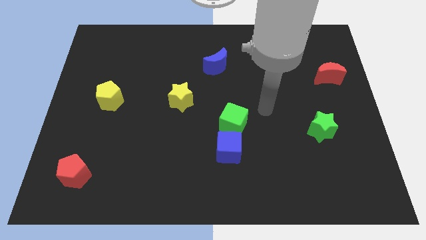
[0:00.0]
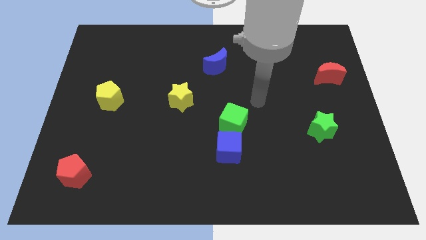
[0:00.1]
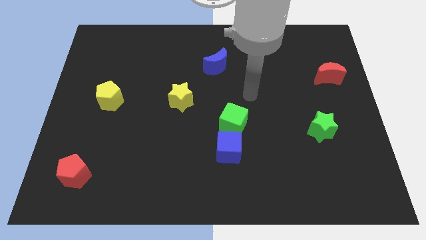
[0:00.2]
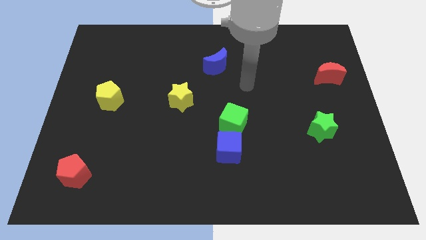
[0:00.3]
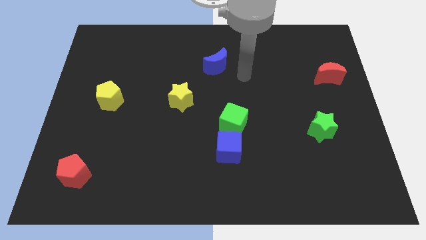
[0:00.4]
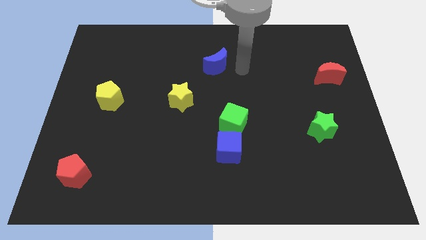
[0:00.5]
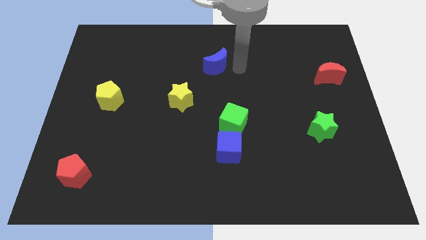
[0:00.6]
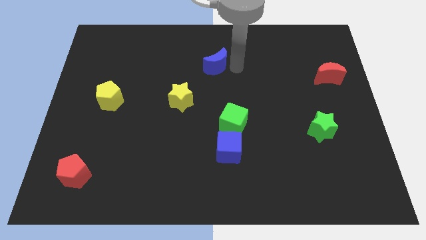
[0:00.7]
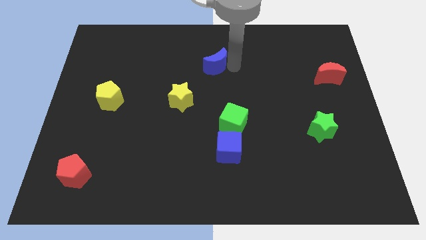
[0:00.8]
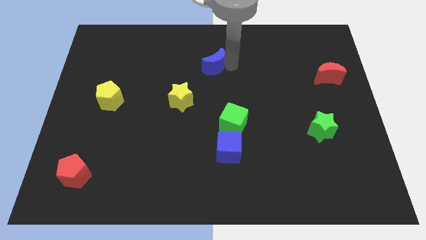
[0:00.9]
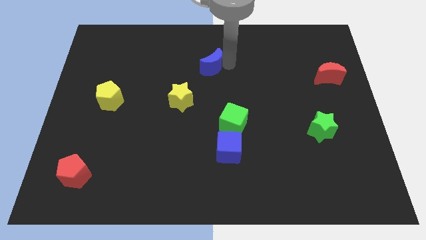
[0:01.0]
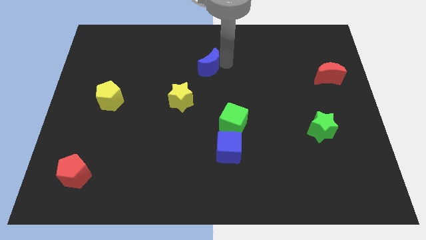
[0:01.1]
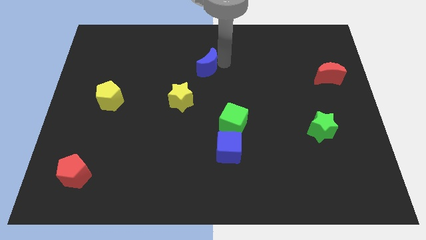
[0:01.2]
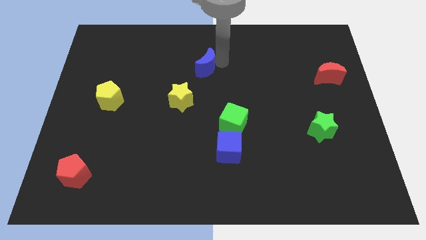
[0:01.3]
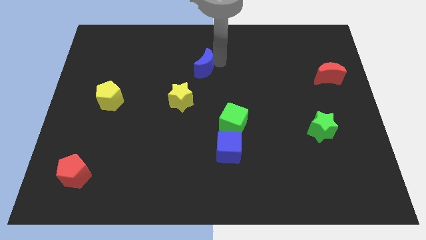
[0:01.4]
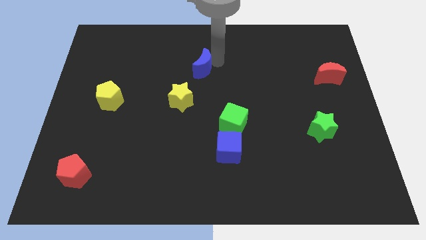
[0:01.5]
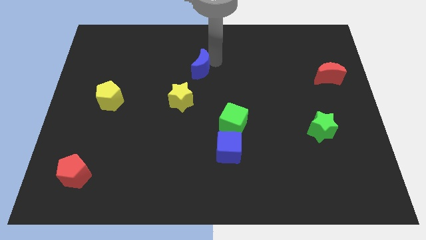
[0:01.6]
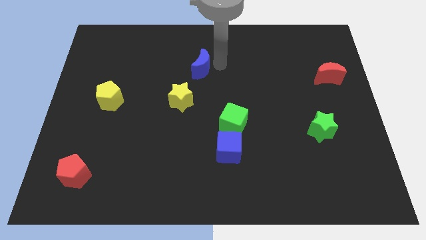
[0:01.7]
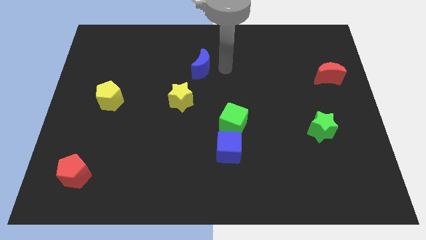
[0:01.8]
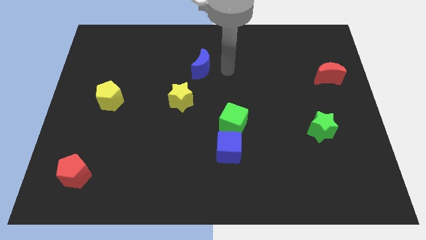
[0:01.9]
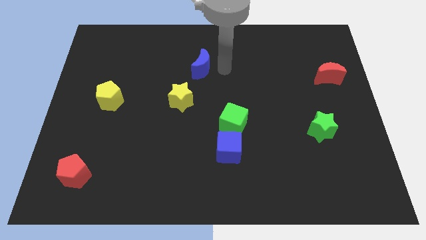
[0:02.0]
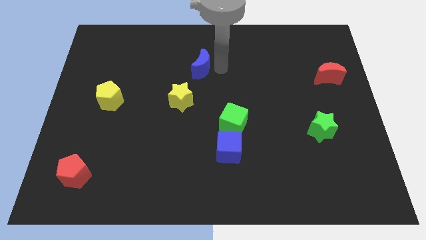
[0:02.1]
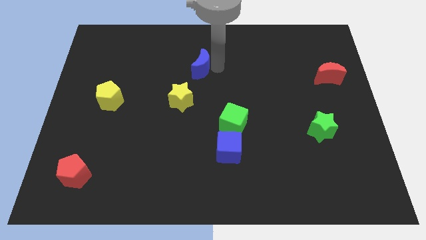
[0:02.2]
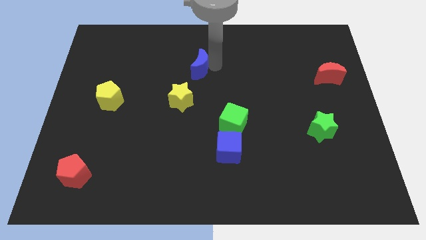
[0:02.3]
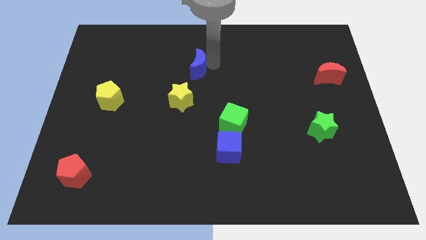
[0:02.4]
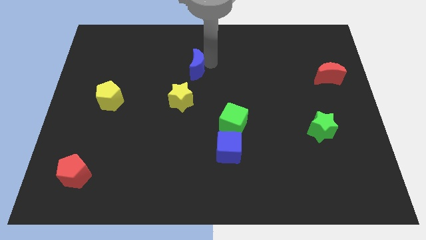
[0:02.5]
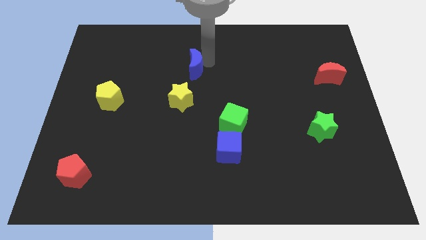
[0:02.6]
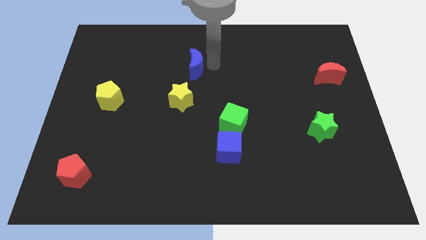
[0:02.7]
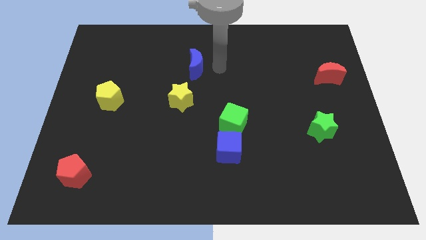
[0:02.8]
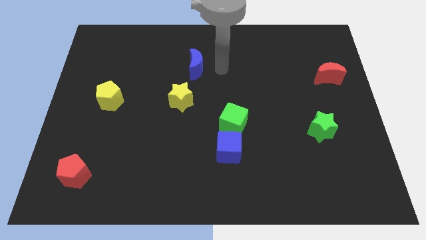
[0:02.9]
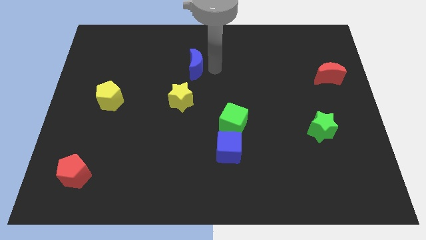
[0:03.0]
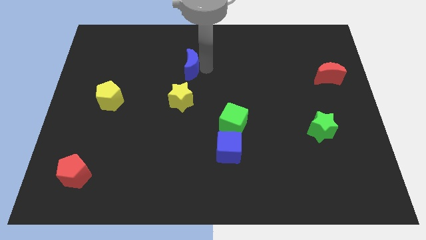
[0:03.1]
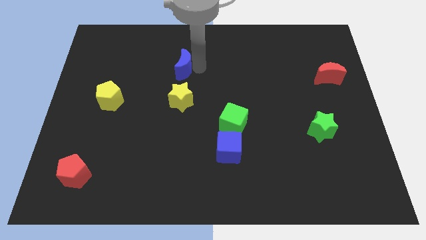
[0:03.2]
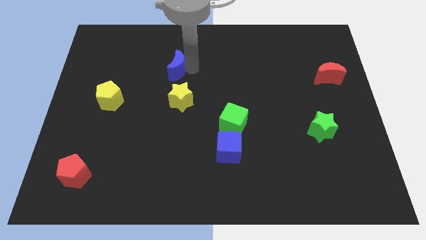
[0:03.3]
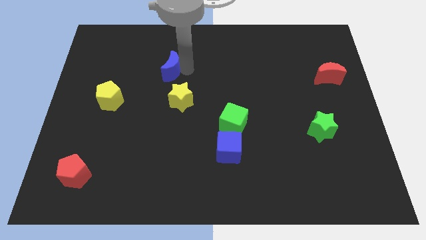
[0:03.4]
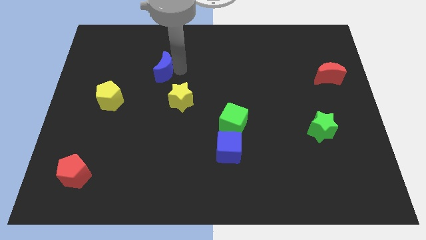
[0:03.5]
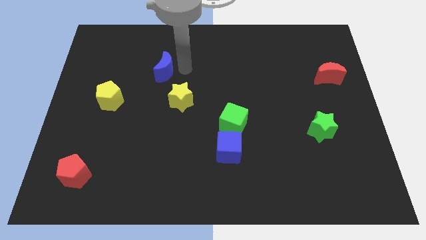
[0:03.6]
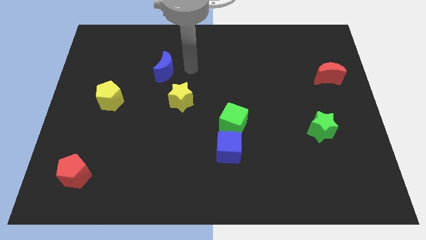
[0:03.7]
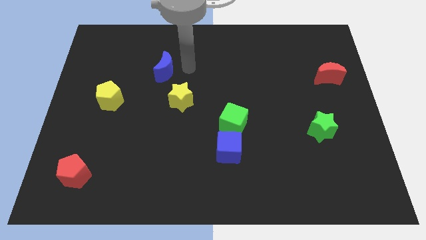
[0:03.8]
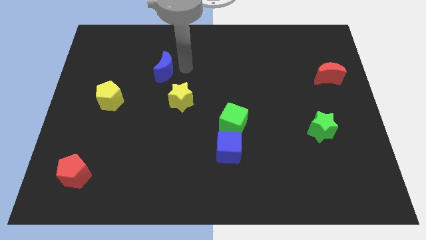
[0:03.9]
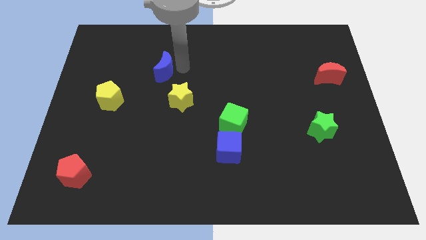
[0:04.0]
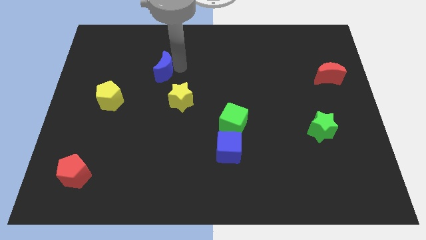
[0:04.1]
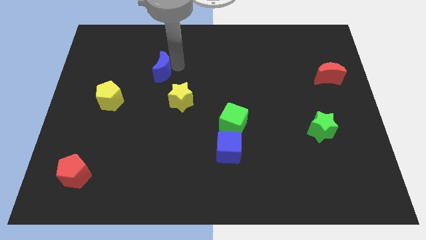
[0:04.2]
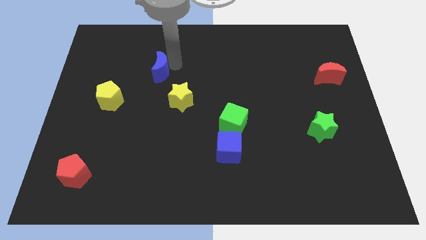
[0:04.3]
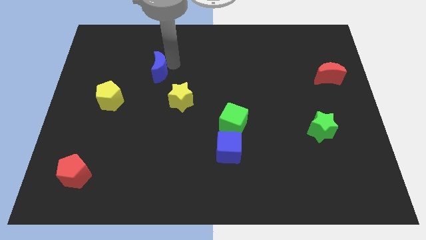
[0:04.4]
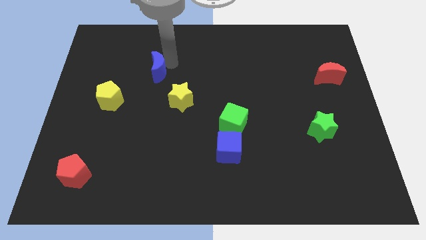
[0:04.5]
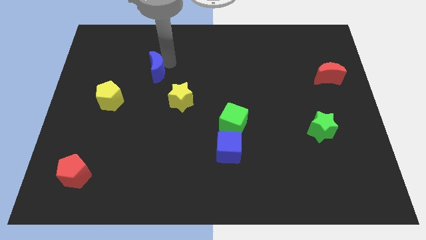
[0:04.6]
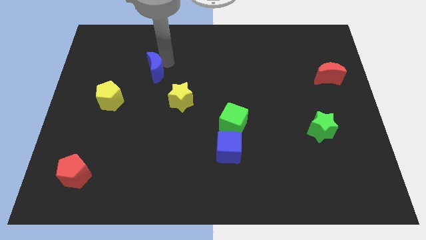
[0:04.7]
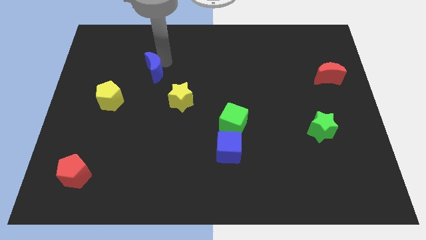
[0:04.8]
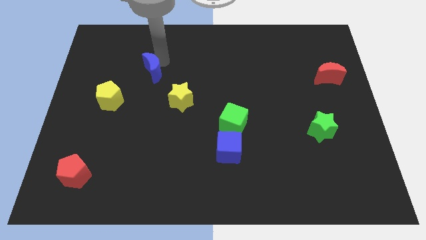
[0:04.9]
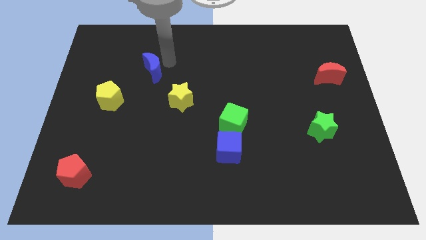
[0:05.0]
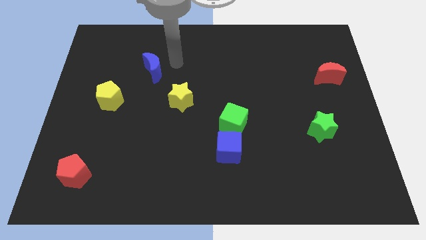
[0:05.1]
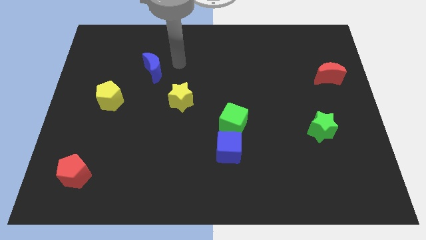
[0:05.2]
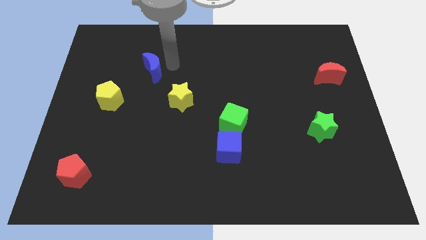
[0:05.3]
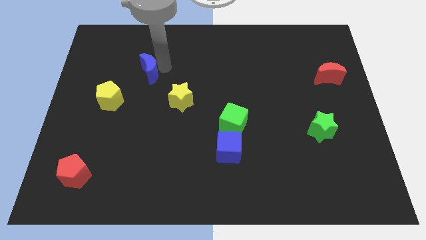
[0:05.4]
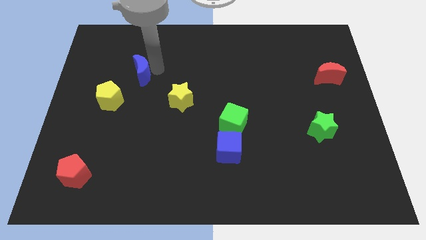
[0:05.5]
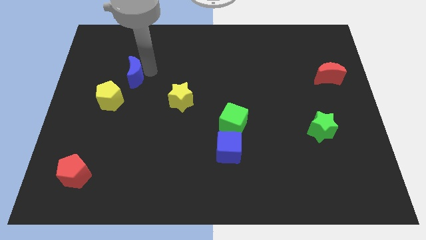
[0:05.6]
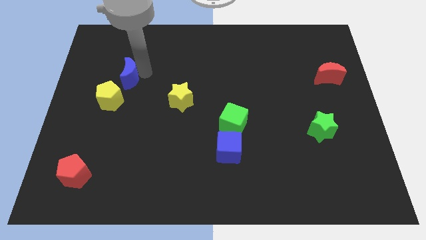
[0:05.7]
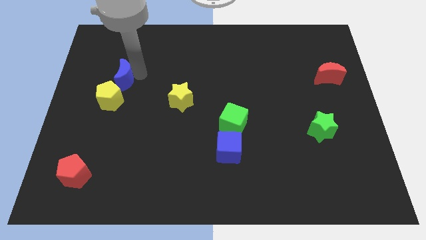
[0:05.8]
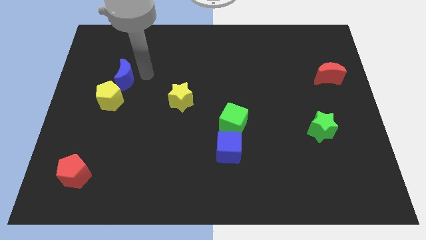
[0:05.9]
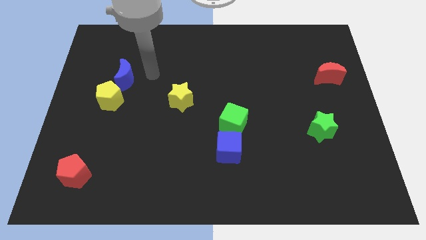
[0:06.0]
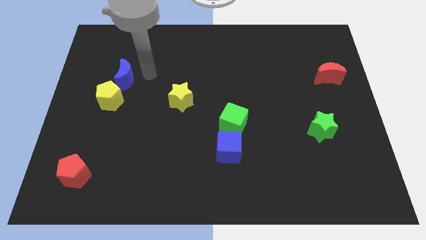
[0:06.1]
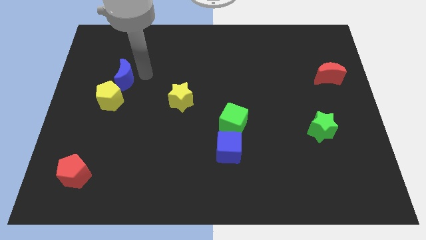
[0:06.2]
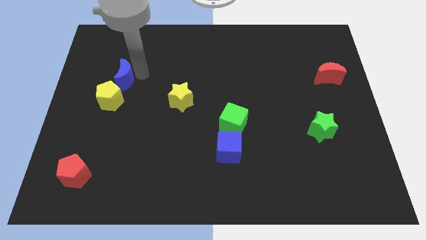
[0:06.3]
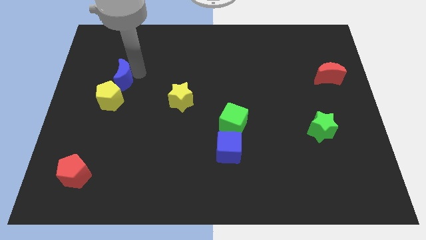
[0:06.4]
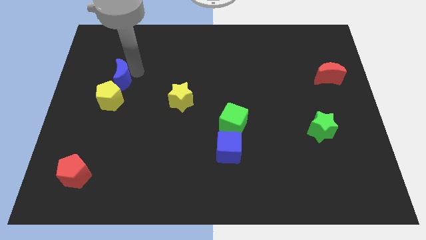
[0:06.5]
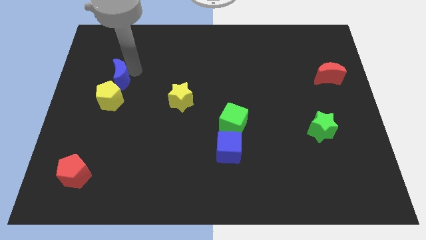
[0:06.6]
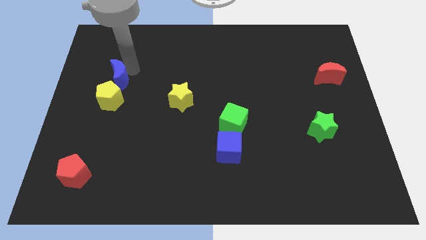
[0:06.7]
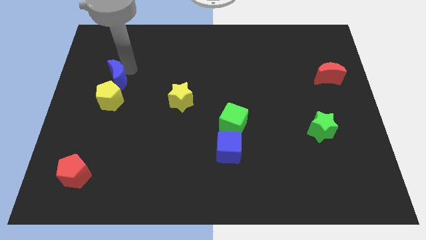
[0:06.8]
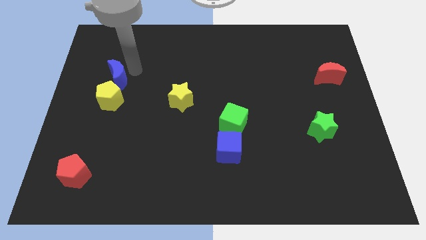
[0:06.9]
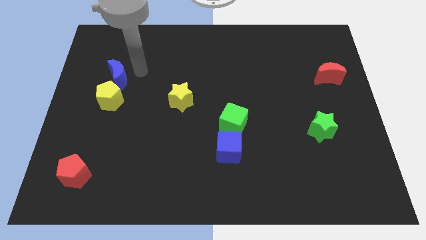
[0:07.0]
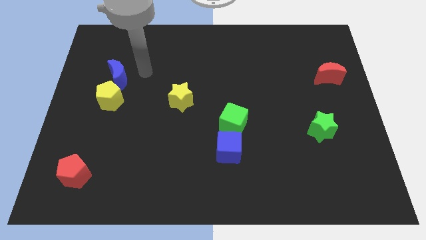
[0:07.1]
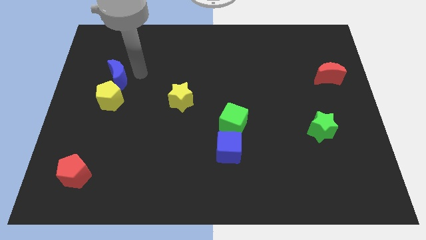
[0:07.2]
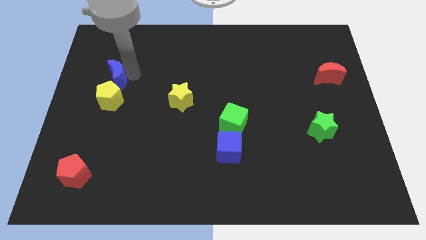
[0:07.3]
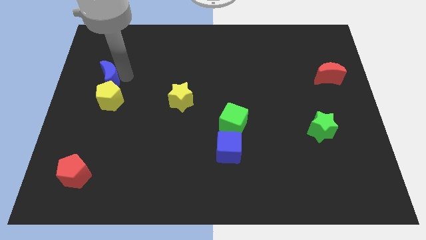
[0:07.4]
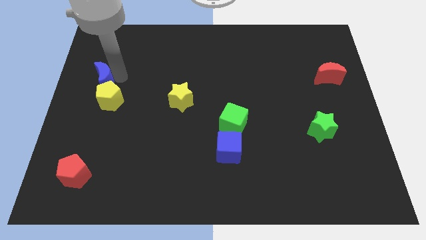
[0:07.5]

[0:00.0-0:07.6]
put the blue moon to the center left
